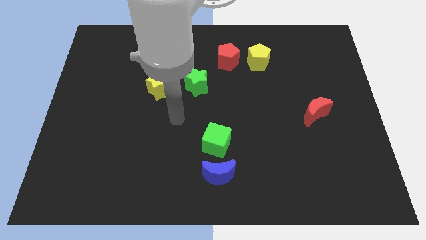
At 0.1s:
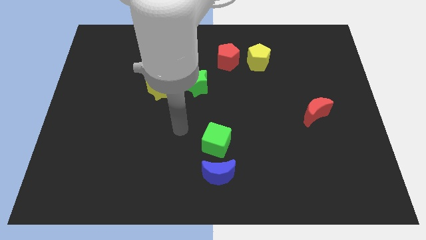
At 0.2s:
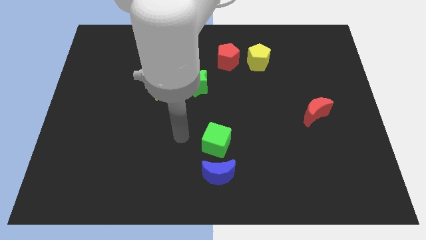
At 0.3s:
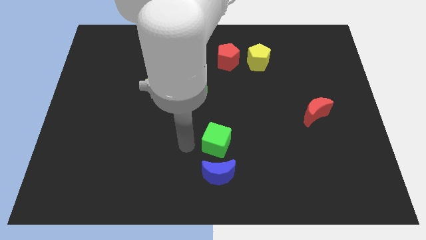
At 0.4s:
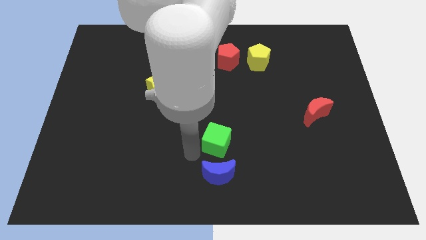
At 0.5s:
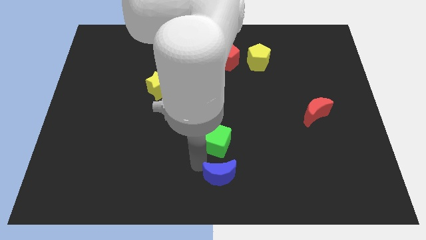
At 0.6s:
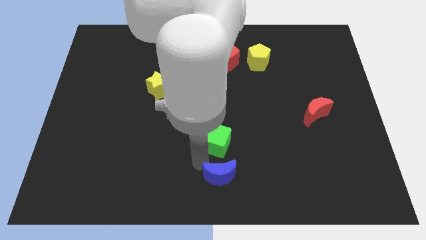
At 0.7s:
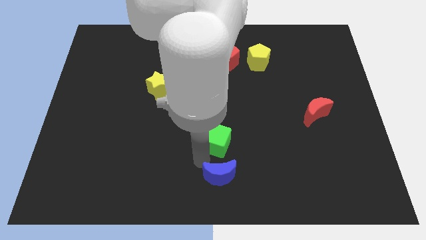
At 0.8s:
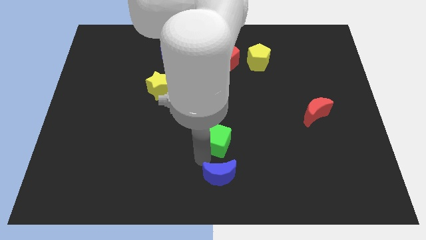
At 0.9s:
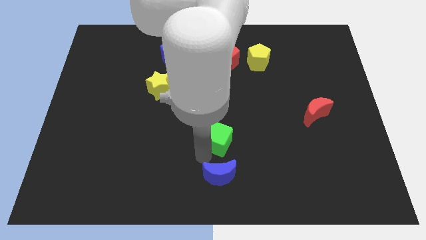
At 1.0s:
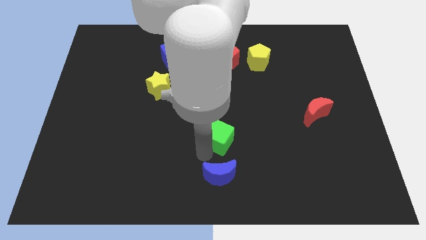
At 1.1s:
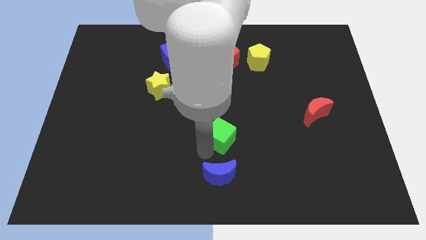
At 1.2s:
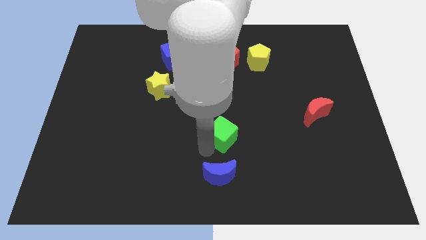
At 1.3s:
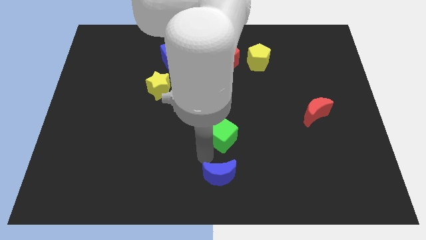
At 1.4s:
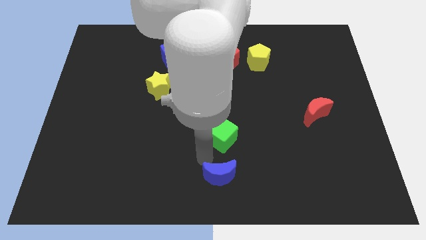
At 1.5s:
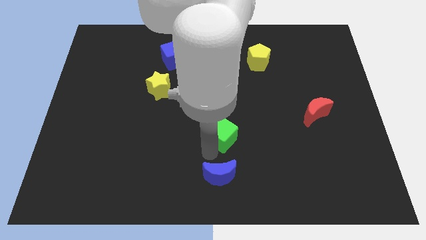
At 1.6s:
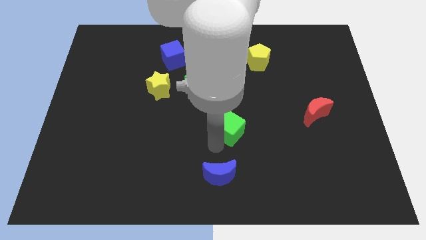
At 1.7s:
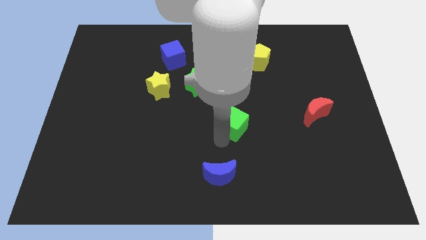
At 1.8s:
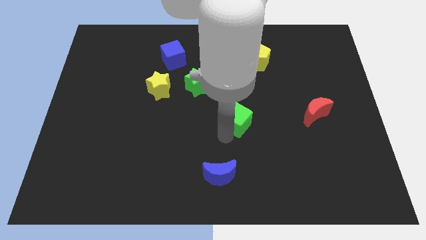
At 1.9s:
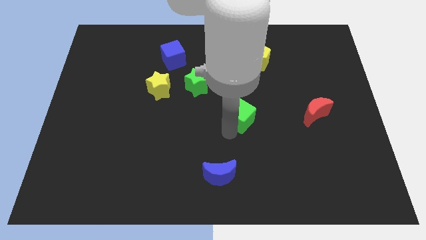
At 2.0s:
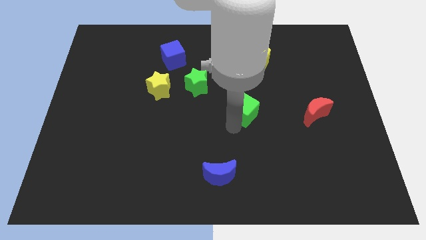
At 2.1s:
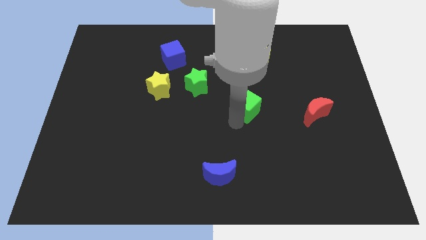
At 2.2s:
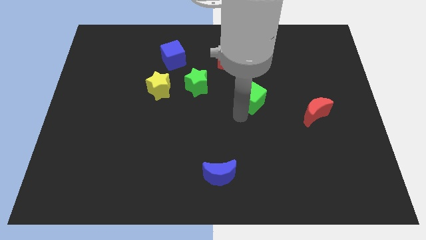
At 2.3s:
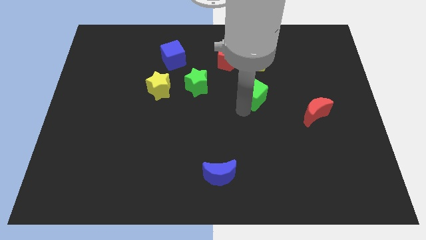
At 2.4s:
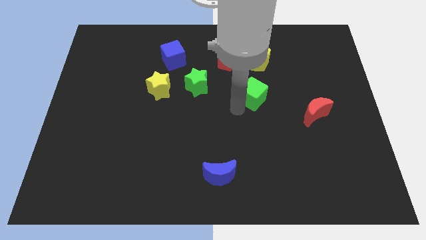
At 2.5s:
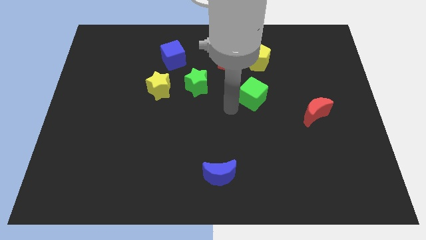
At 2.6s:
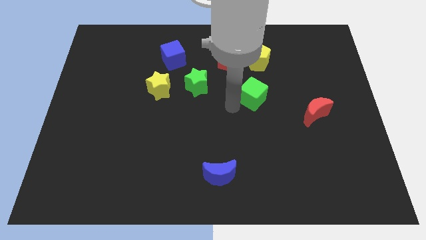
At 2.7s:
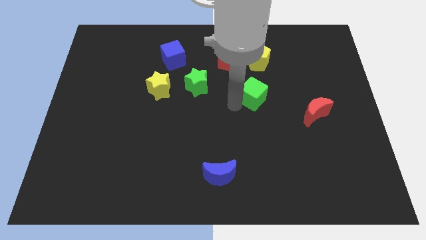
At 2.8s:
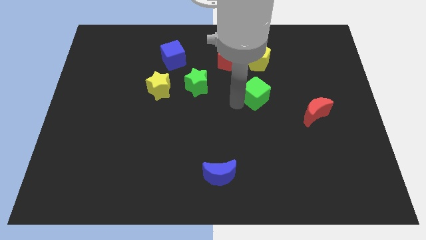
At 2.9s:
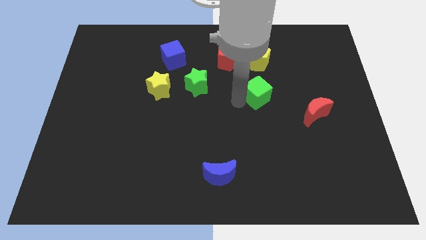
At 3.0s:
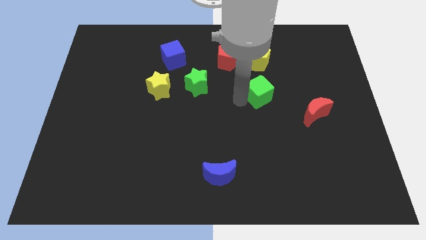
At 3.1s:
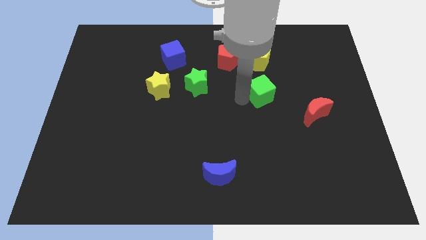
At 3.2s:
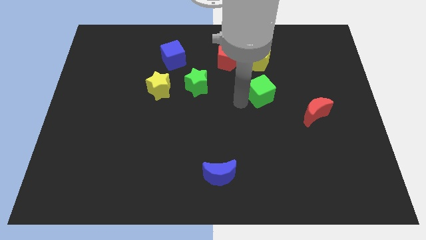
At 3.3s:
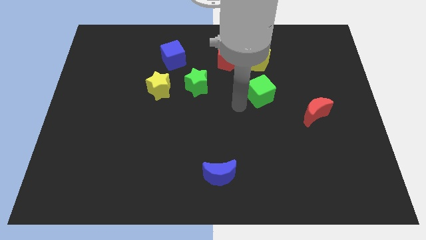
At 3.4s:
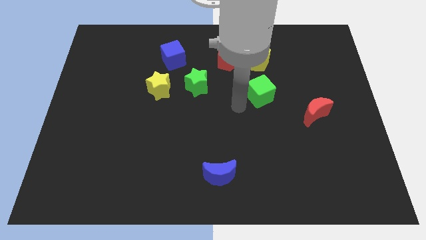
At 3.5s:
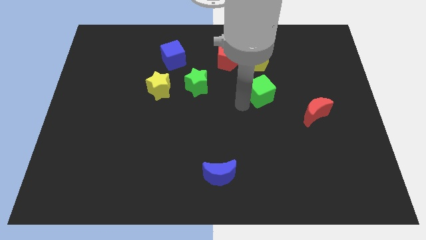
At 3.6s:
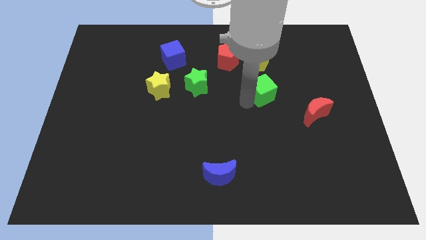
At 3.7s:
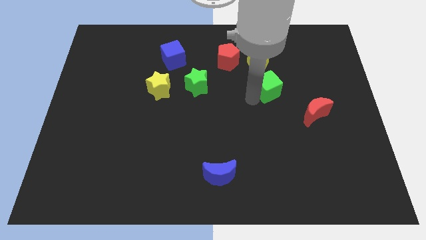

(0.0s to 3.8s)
push the green cube upwards and to the right

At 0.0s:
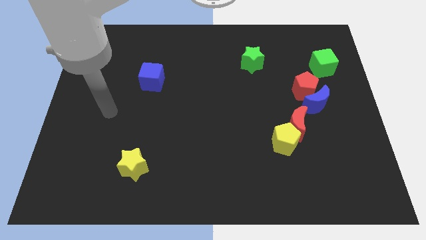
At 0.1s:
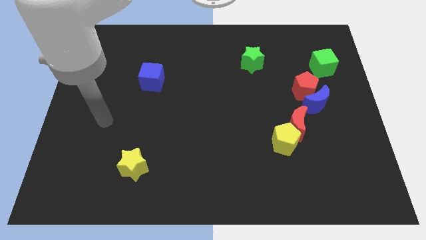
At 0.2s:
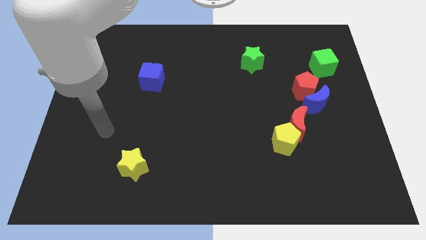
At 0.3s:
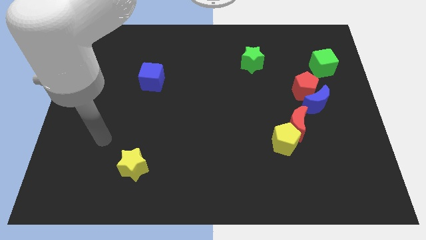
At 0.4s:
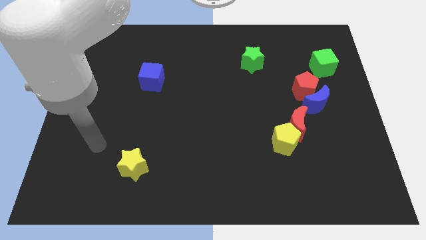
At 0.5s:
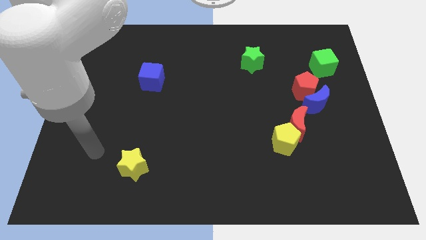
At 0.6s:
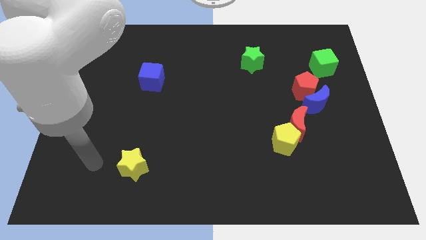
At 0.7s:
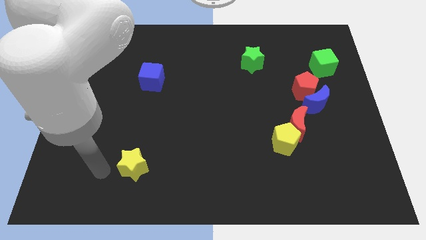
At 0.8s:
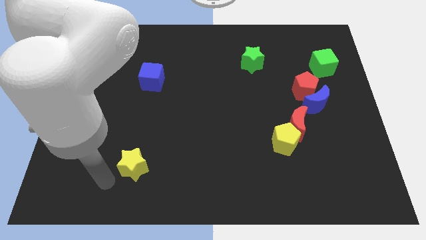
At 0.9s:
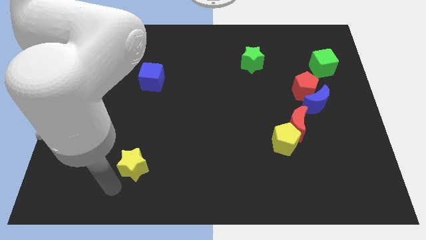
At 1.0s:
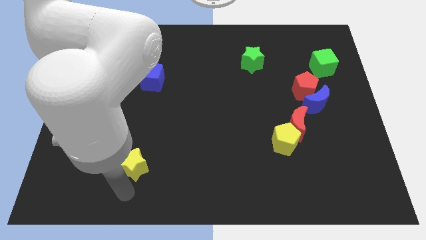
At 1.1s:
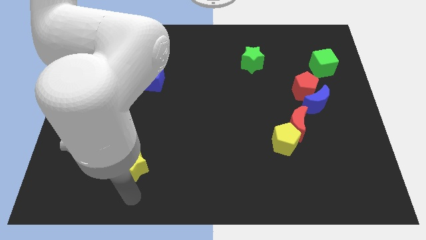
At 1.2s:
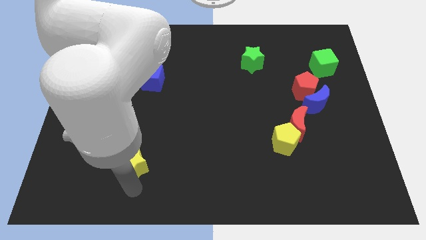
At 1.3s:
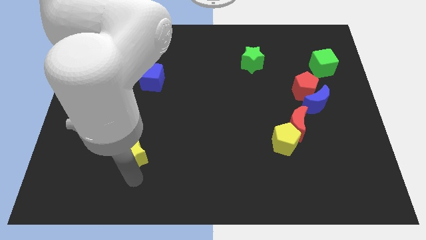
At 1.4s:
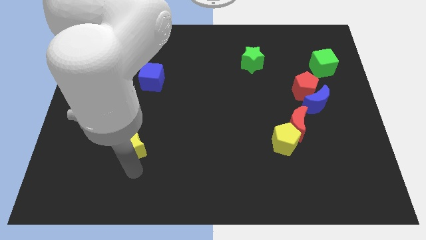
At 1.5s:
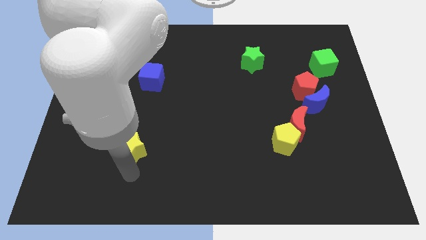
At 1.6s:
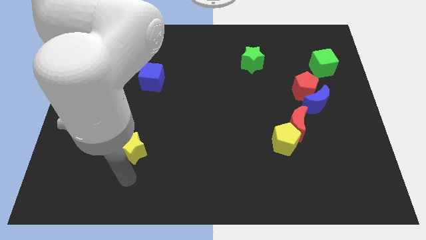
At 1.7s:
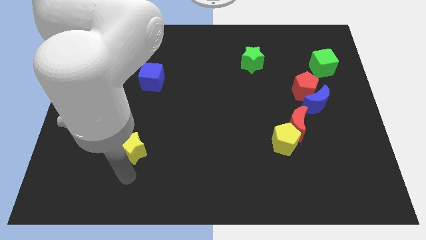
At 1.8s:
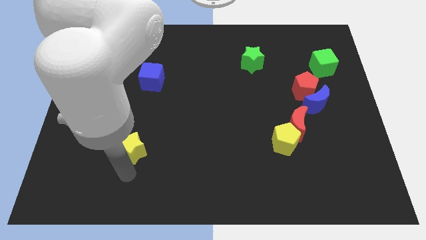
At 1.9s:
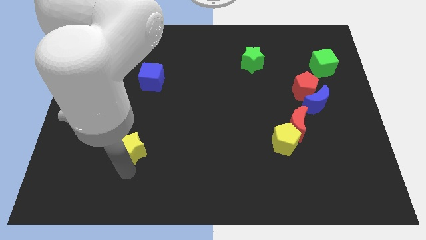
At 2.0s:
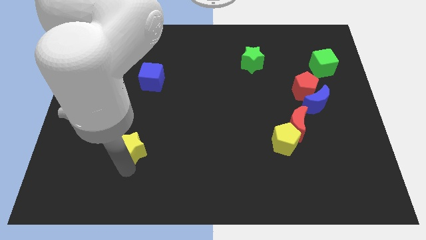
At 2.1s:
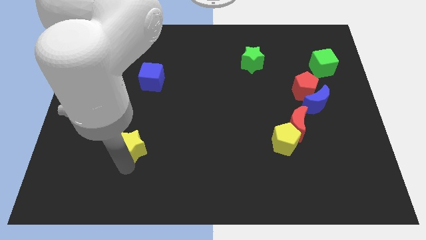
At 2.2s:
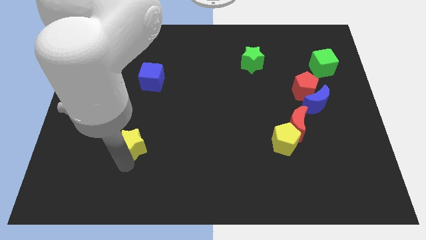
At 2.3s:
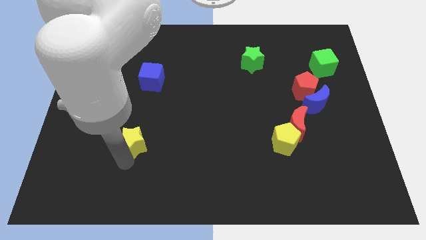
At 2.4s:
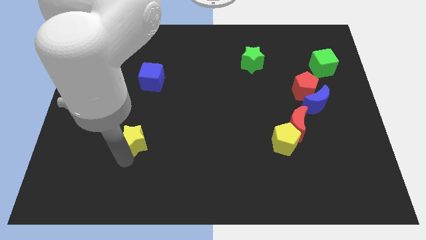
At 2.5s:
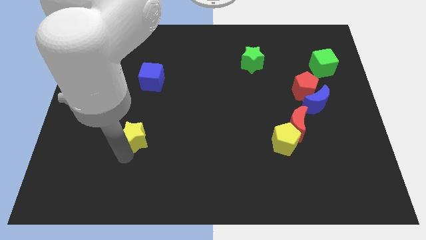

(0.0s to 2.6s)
slide the yellow star a little up

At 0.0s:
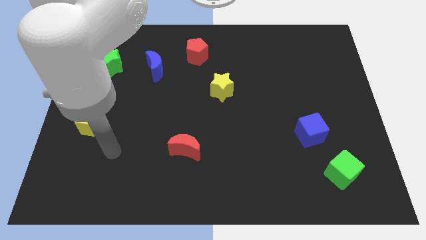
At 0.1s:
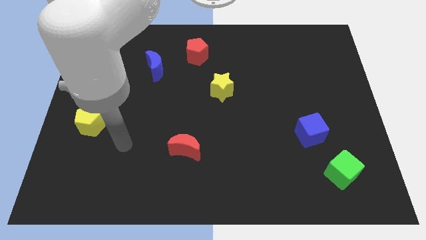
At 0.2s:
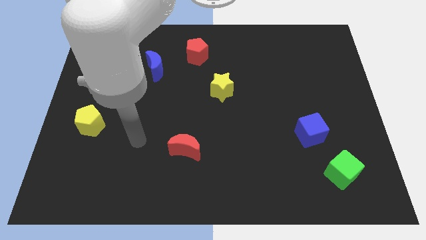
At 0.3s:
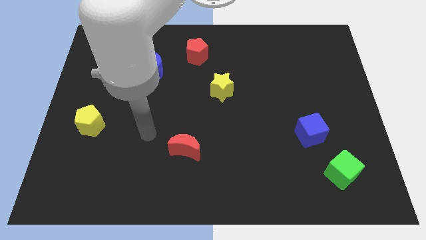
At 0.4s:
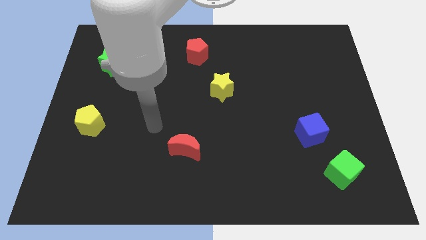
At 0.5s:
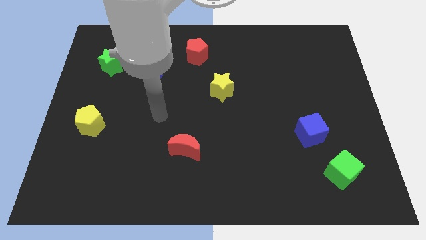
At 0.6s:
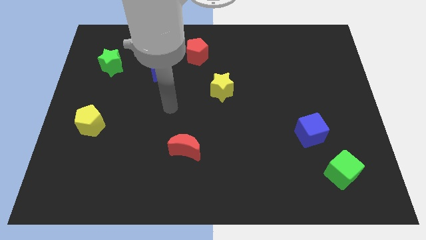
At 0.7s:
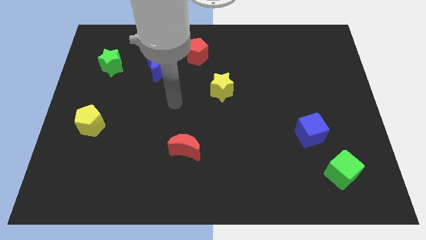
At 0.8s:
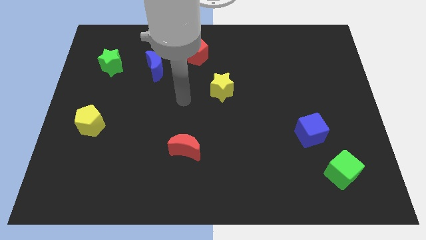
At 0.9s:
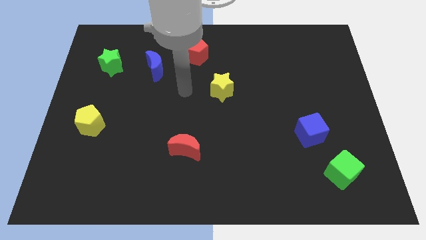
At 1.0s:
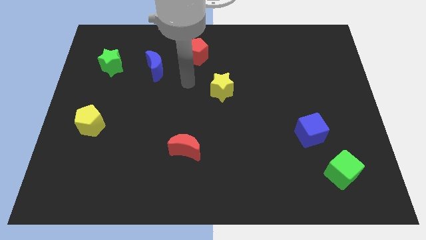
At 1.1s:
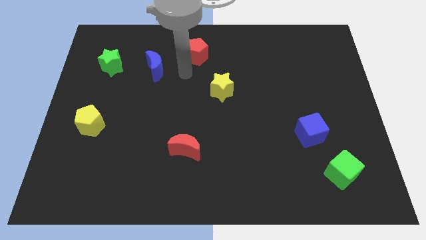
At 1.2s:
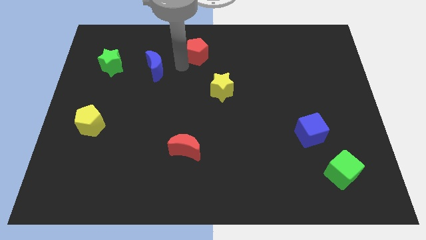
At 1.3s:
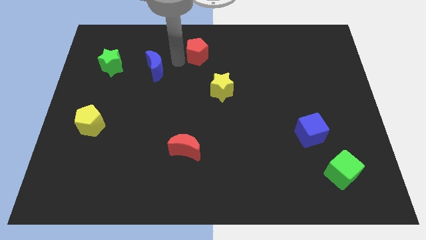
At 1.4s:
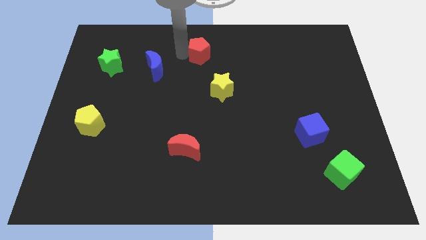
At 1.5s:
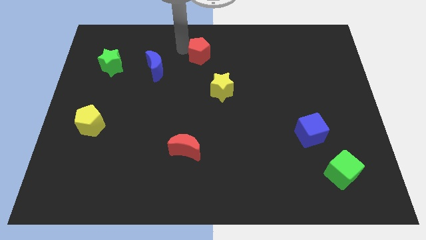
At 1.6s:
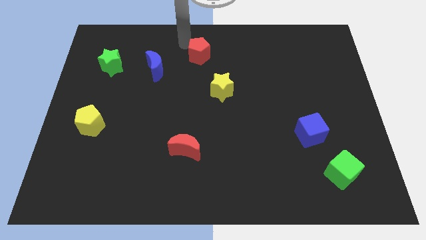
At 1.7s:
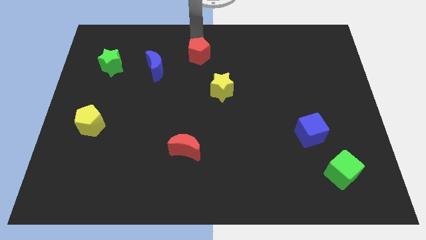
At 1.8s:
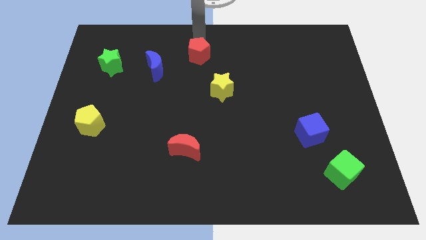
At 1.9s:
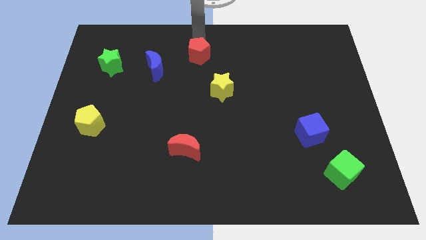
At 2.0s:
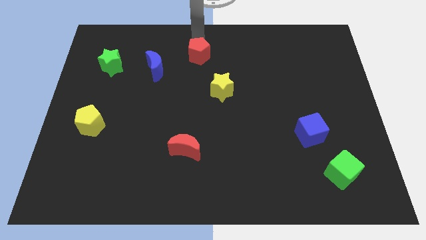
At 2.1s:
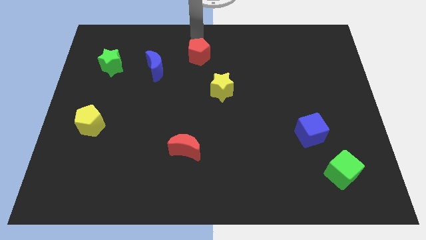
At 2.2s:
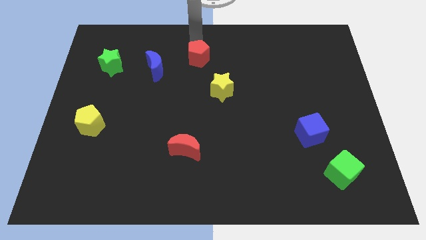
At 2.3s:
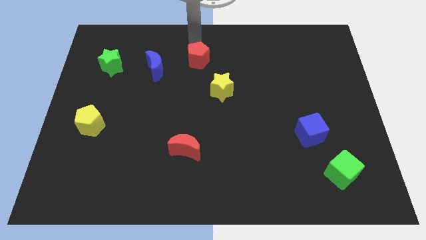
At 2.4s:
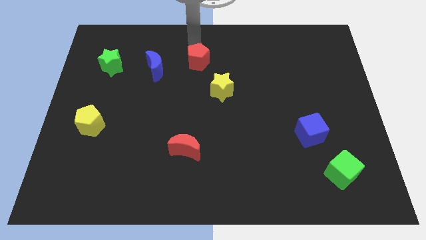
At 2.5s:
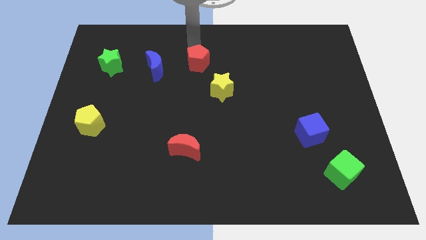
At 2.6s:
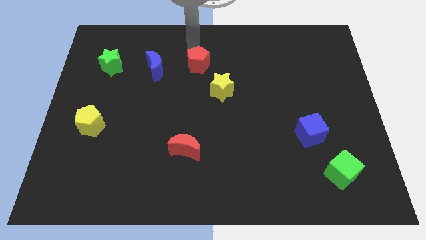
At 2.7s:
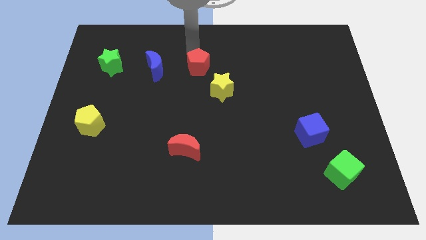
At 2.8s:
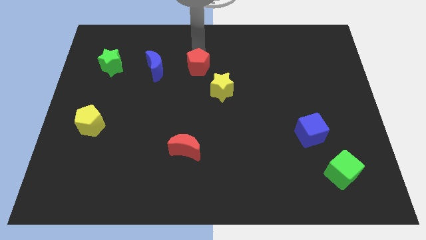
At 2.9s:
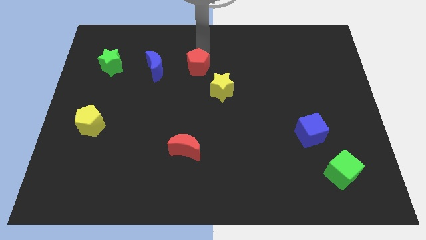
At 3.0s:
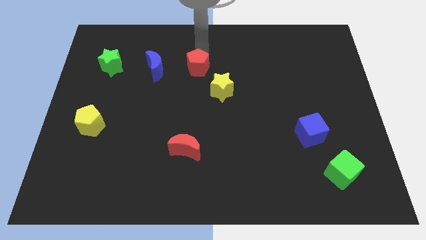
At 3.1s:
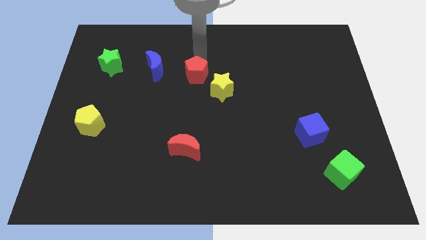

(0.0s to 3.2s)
slightly push the red pentagon down
